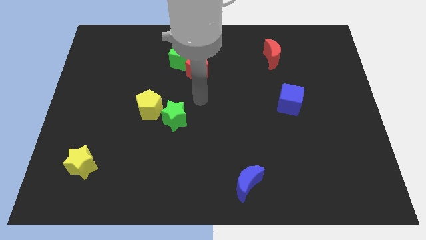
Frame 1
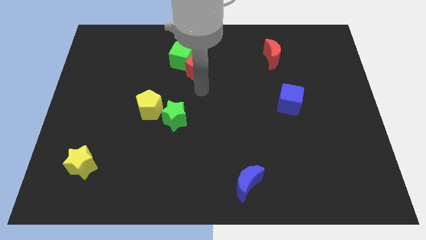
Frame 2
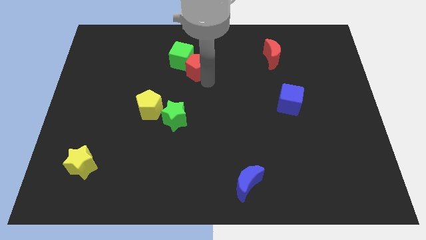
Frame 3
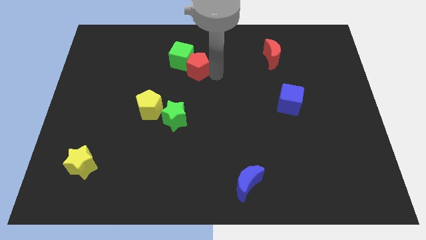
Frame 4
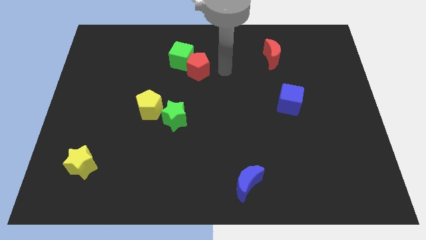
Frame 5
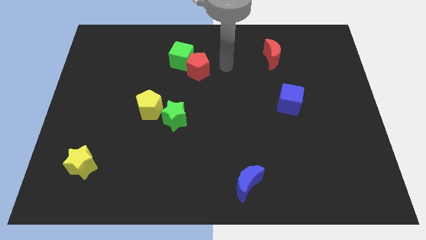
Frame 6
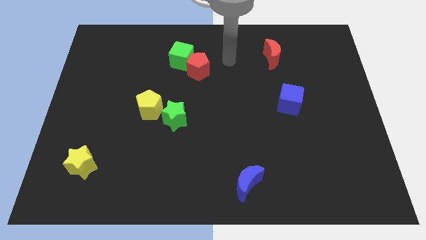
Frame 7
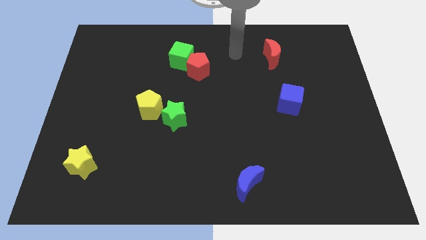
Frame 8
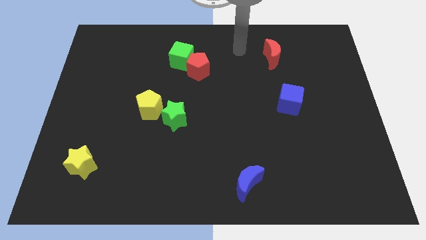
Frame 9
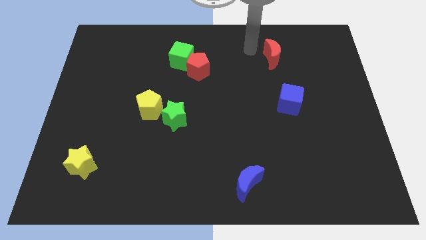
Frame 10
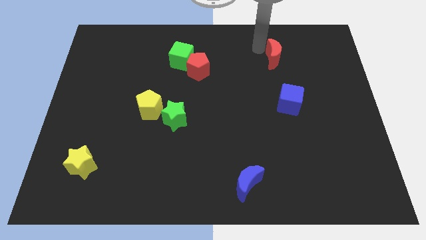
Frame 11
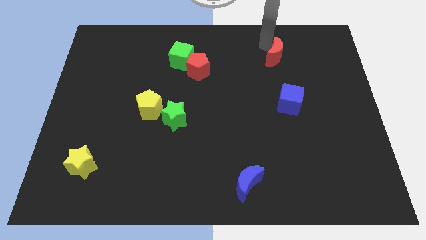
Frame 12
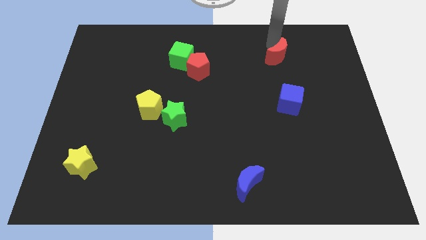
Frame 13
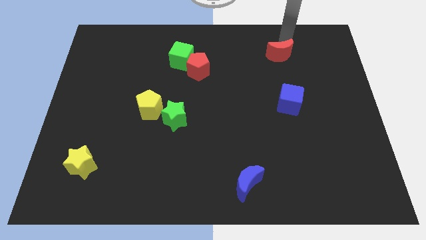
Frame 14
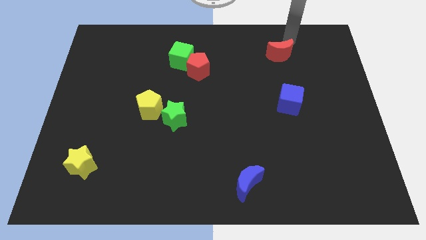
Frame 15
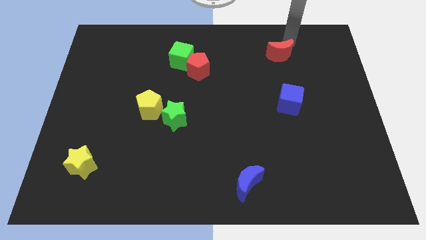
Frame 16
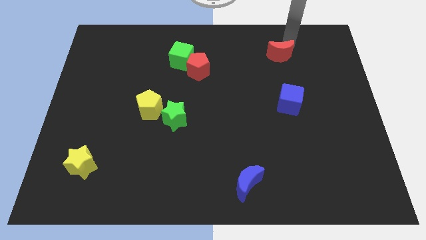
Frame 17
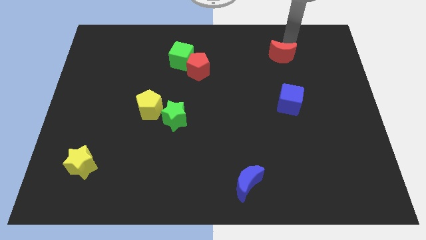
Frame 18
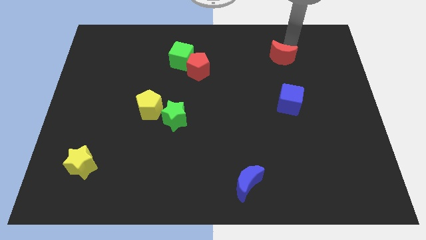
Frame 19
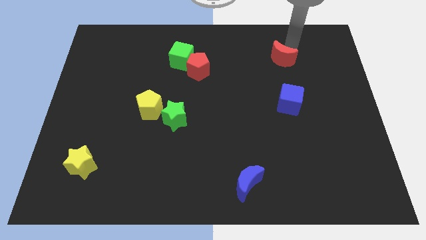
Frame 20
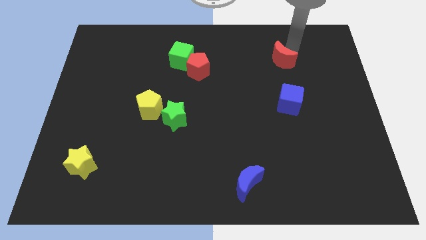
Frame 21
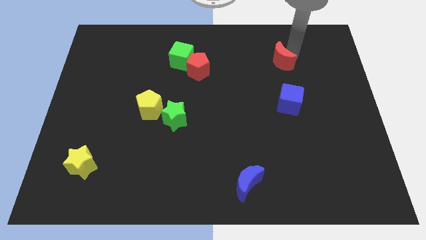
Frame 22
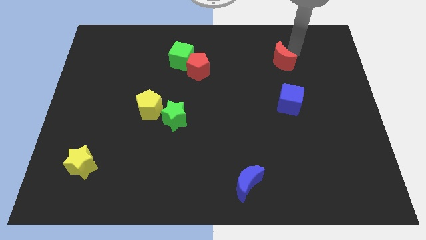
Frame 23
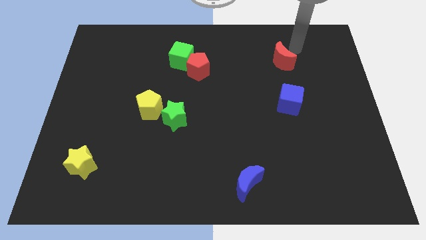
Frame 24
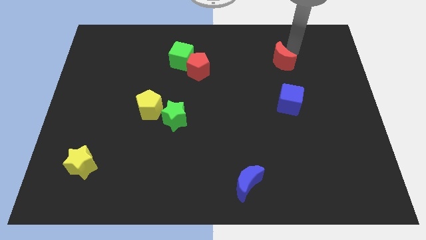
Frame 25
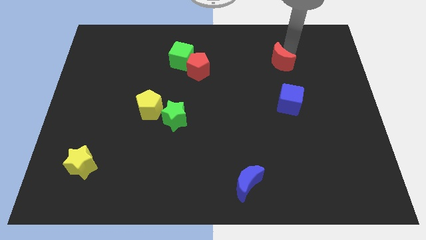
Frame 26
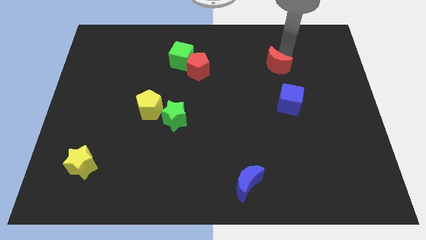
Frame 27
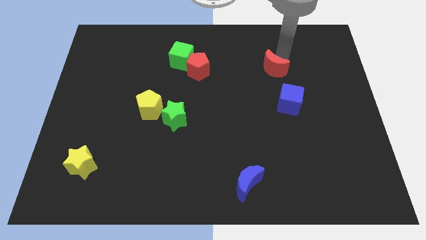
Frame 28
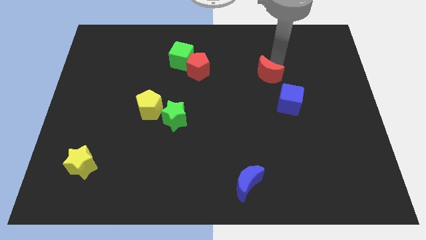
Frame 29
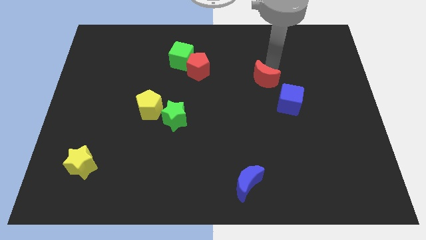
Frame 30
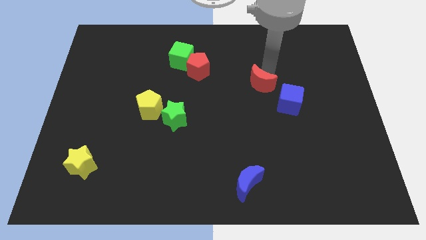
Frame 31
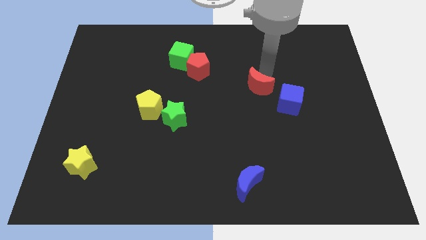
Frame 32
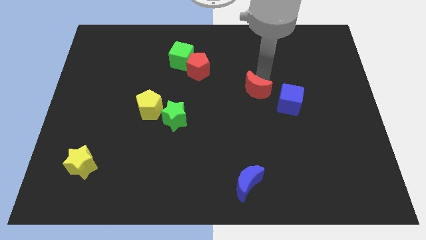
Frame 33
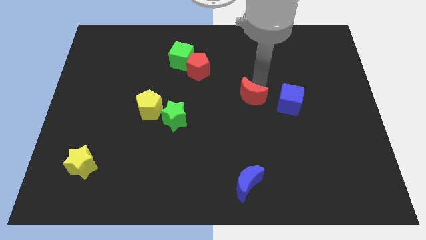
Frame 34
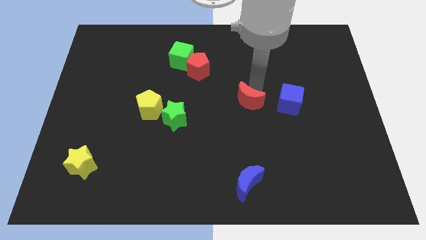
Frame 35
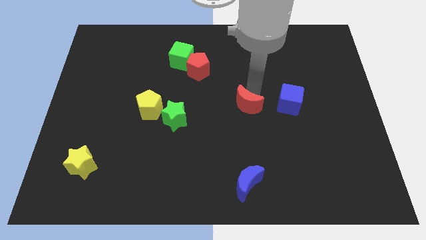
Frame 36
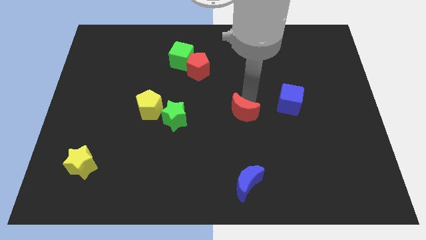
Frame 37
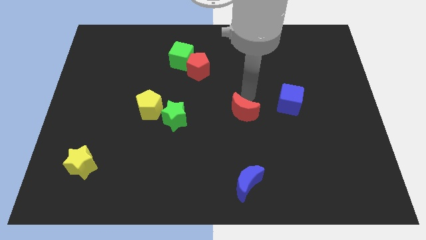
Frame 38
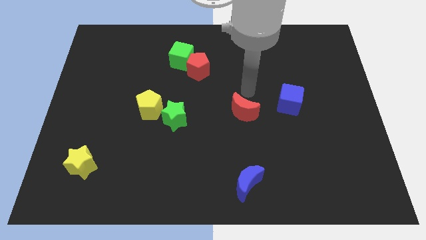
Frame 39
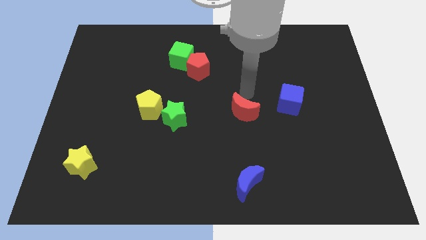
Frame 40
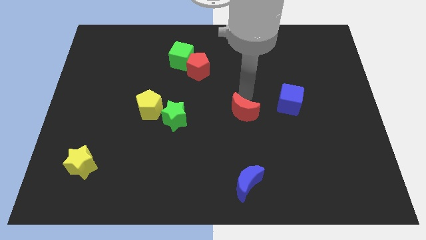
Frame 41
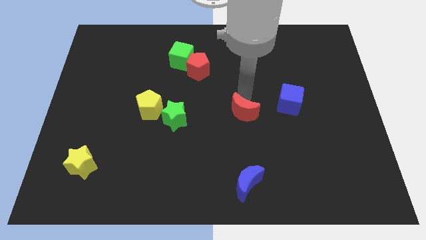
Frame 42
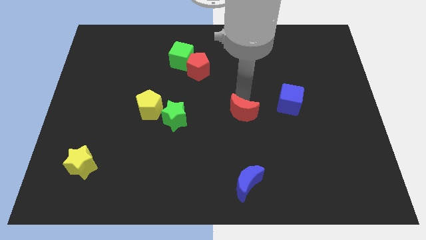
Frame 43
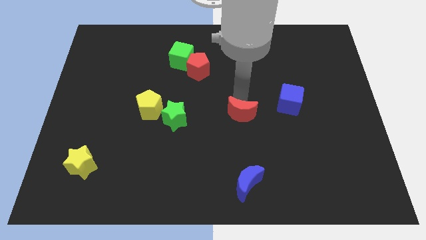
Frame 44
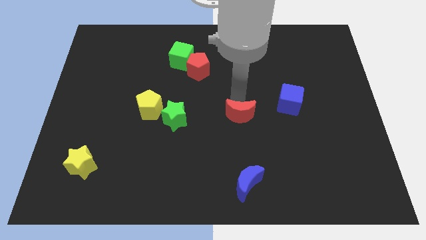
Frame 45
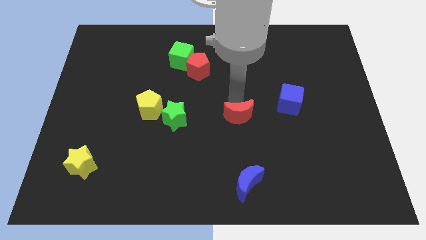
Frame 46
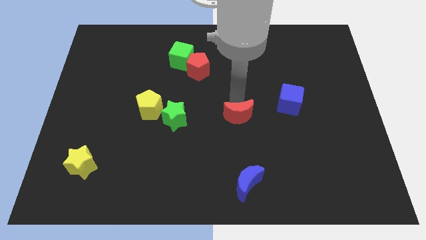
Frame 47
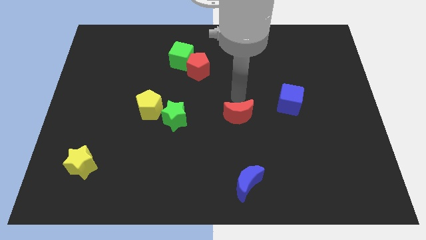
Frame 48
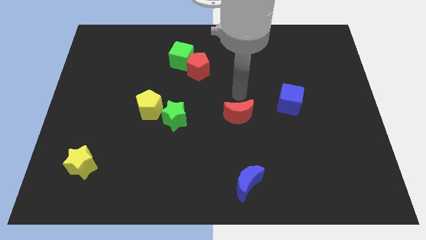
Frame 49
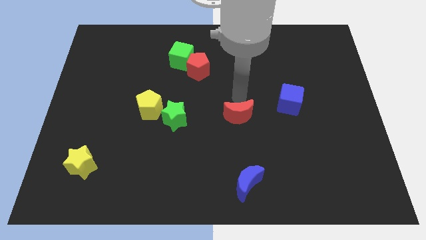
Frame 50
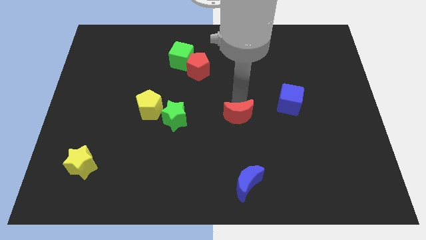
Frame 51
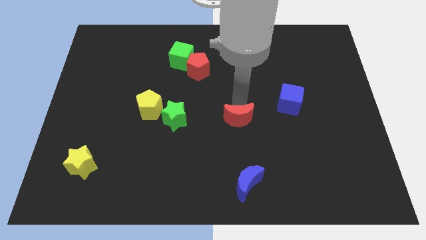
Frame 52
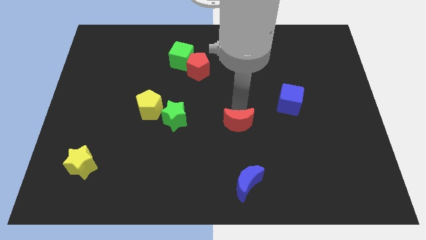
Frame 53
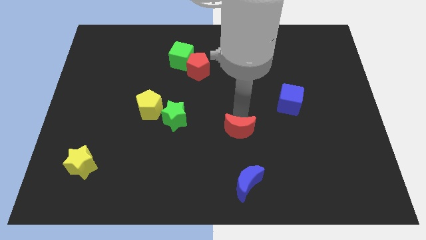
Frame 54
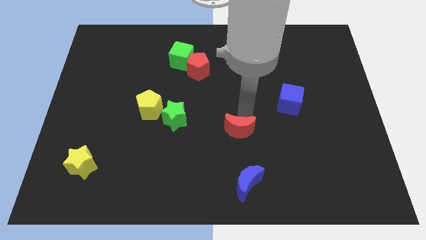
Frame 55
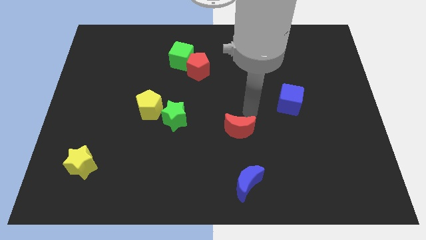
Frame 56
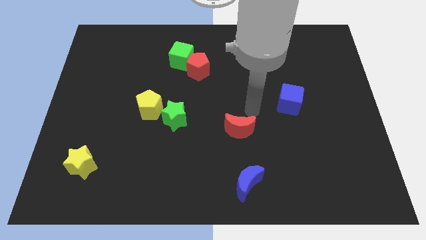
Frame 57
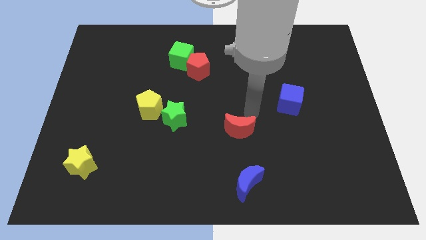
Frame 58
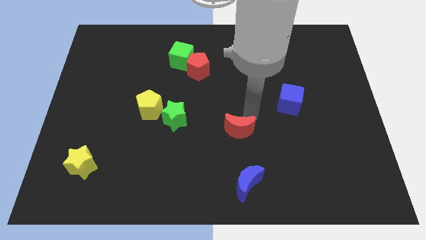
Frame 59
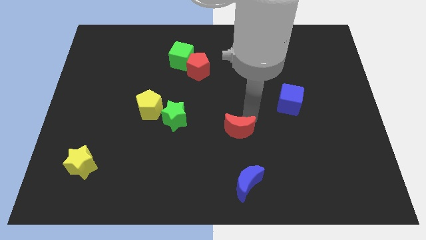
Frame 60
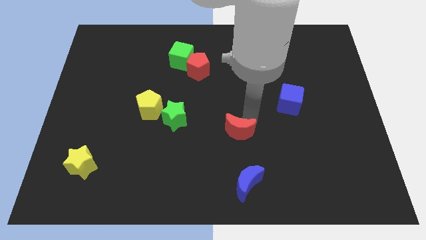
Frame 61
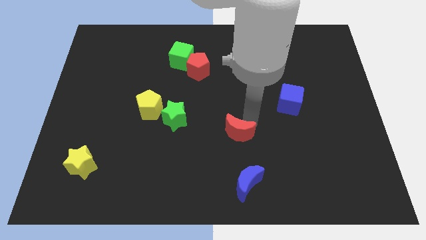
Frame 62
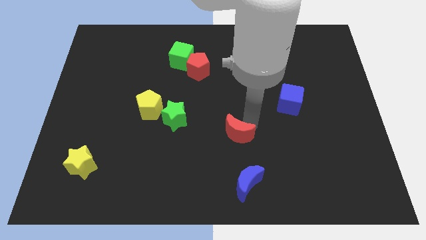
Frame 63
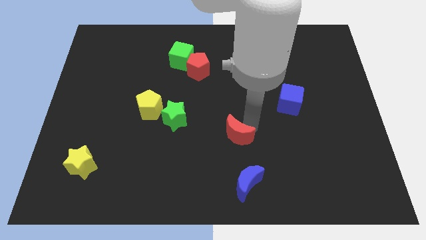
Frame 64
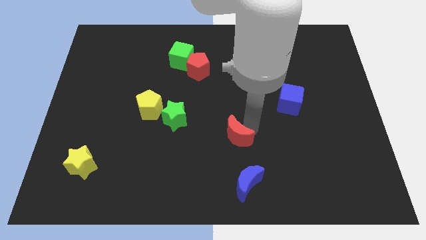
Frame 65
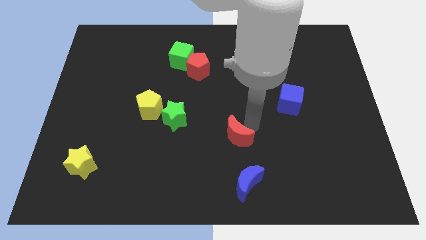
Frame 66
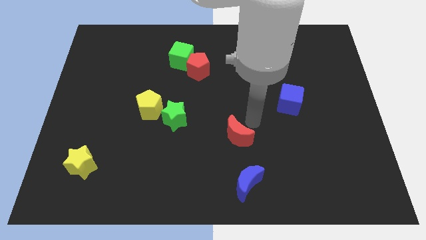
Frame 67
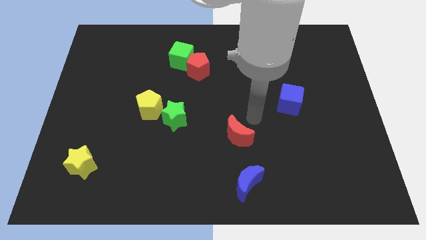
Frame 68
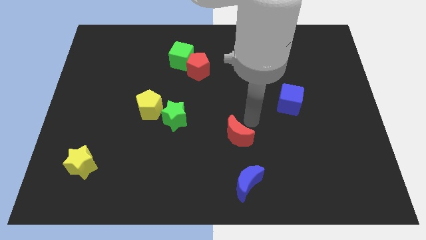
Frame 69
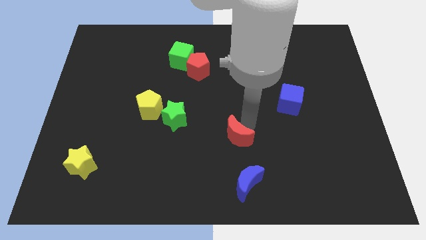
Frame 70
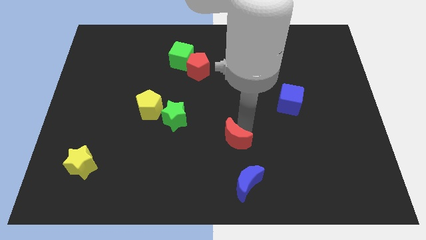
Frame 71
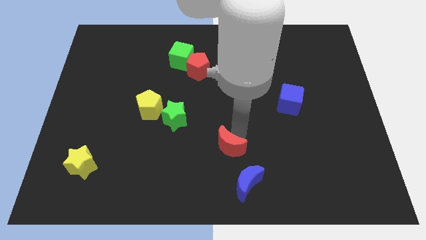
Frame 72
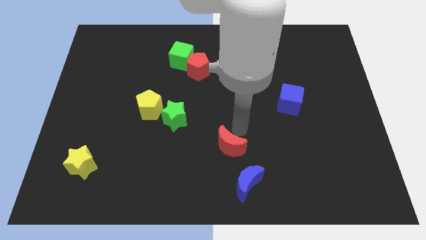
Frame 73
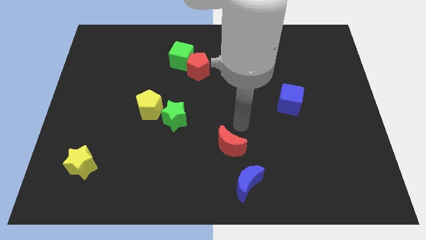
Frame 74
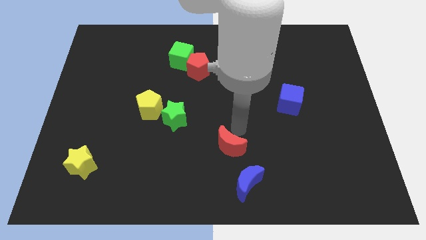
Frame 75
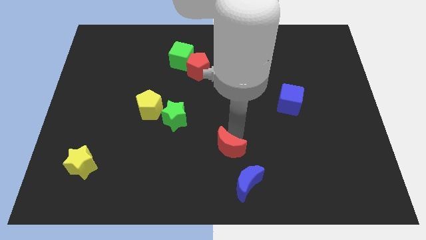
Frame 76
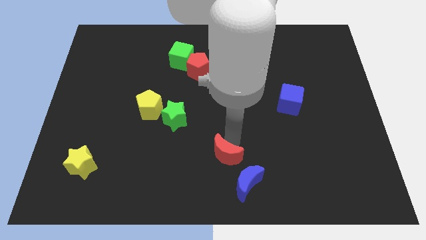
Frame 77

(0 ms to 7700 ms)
put the red moon to the bottom side
